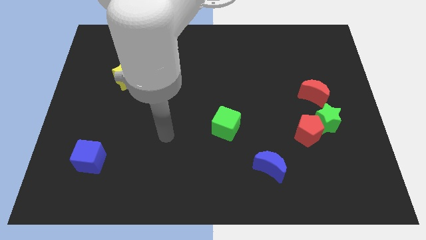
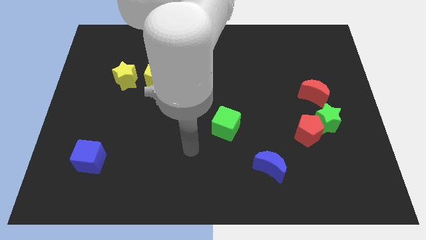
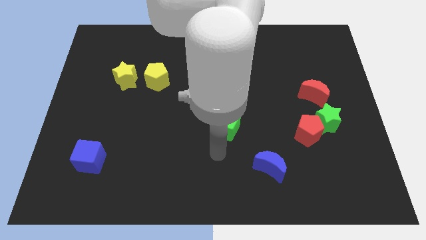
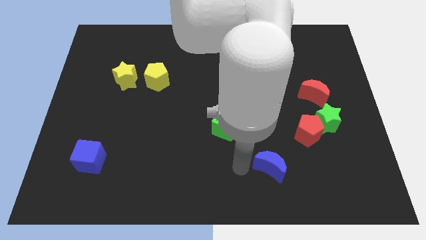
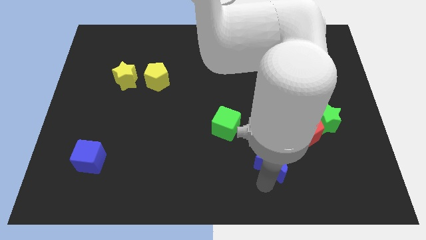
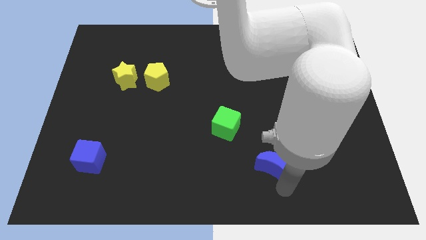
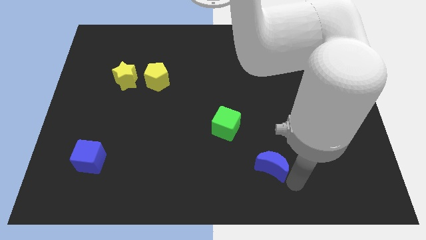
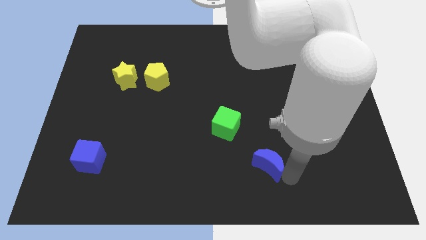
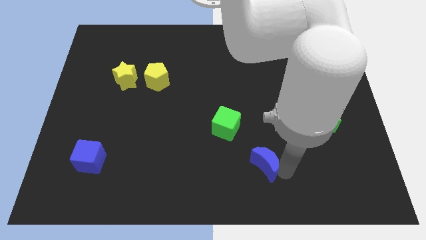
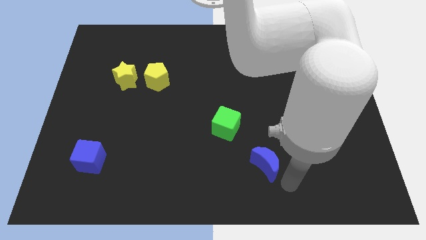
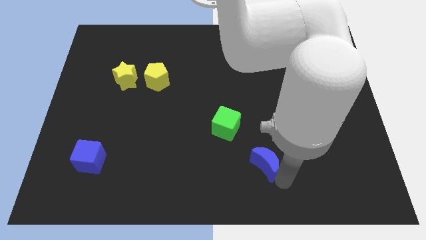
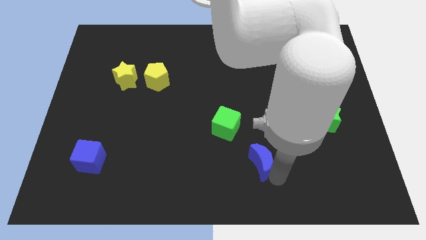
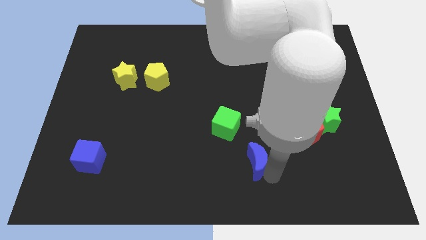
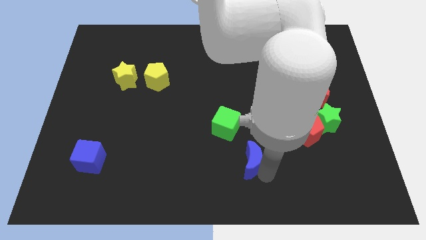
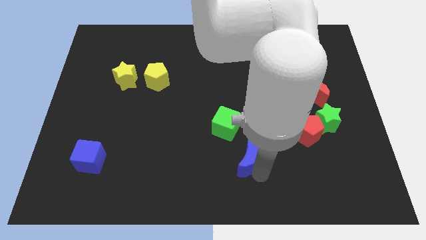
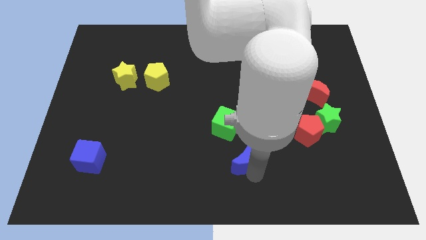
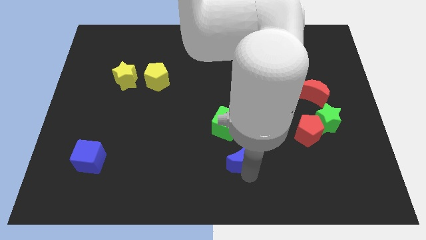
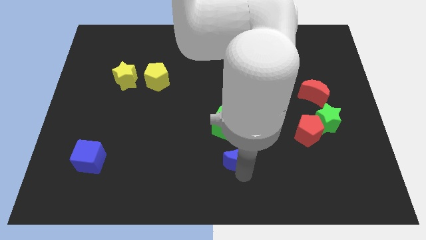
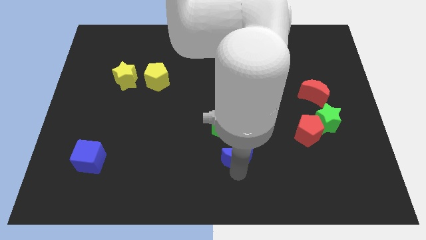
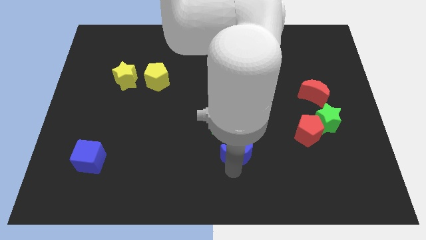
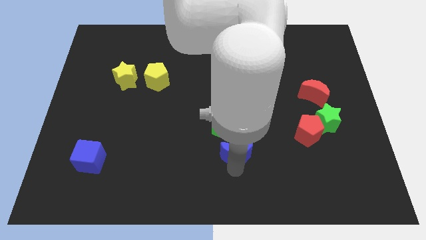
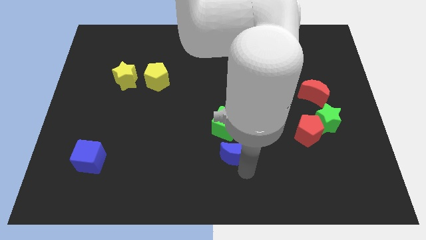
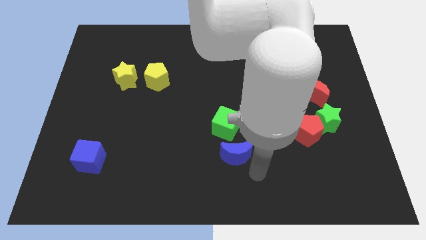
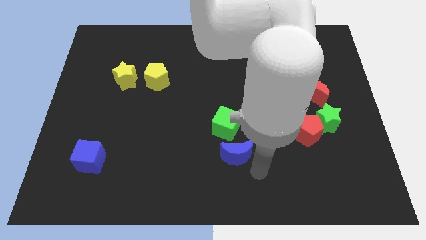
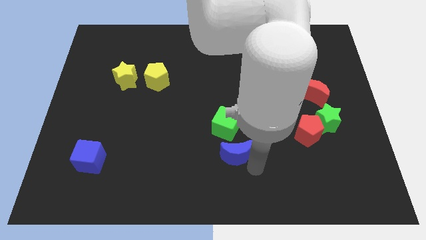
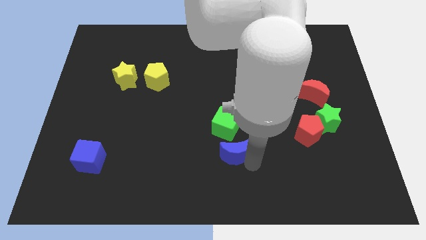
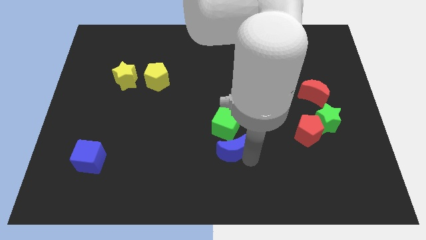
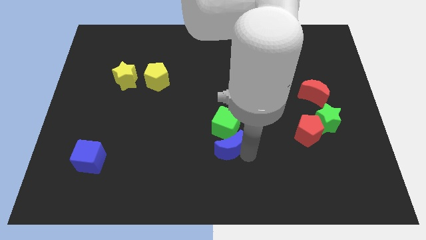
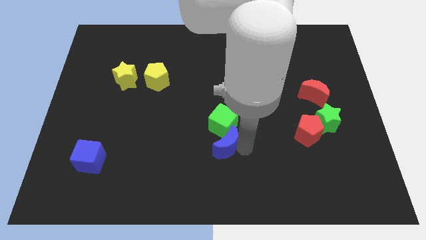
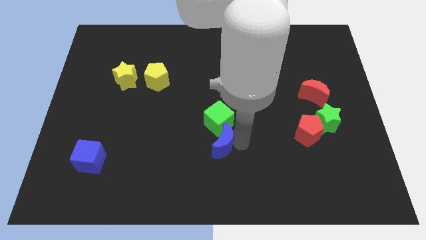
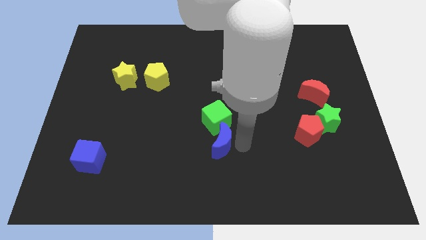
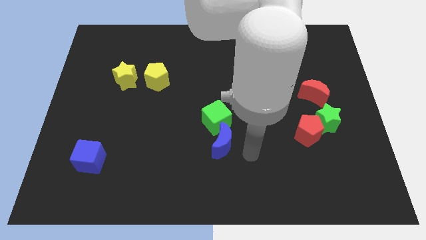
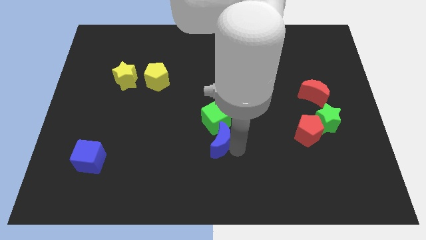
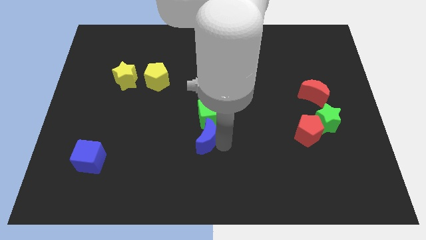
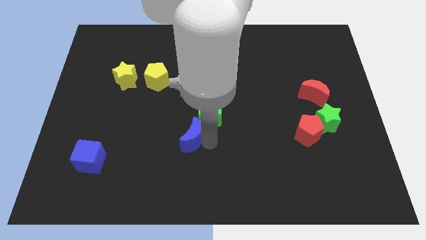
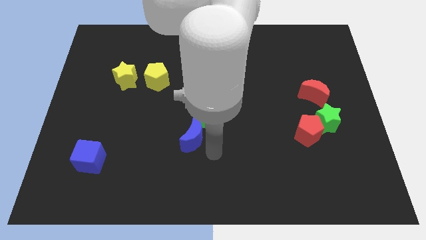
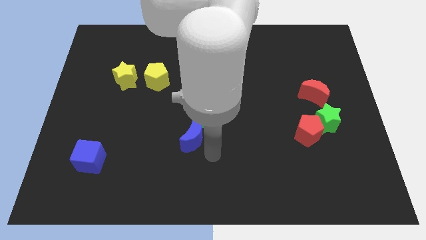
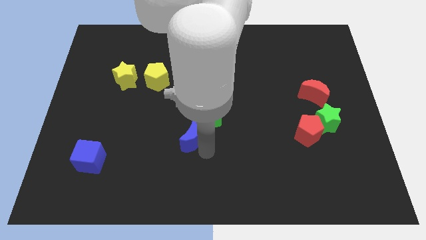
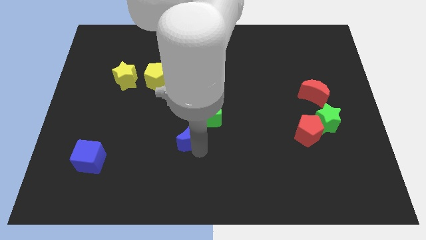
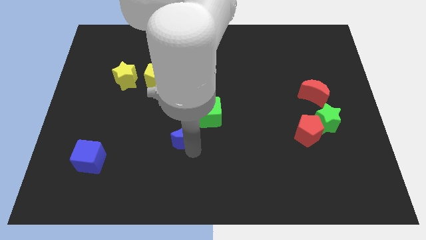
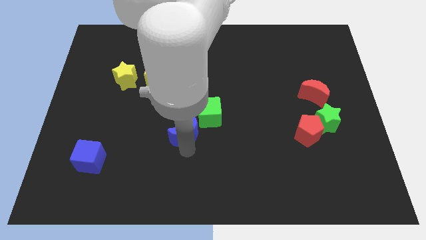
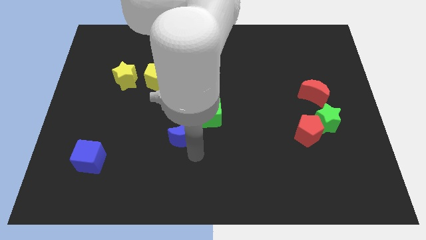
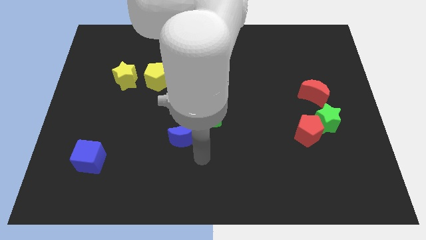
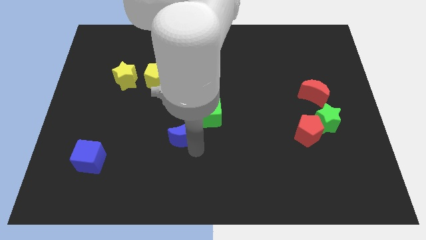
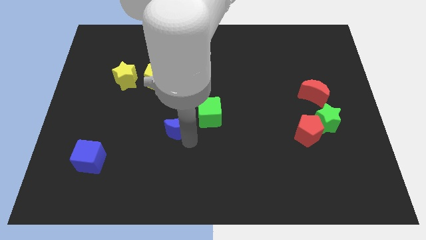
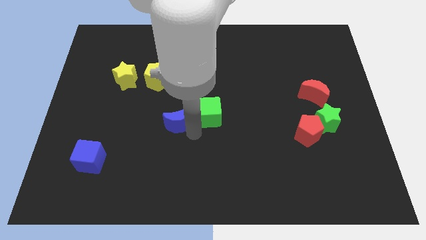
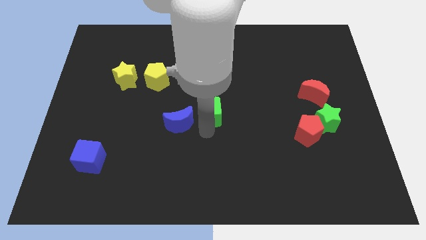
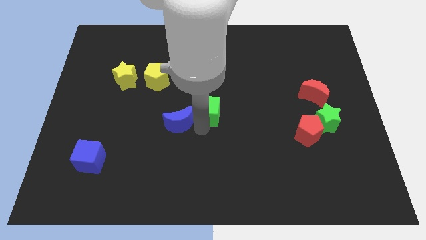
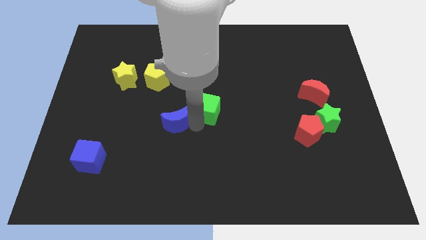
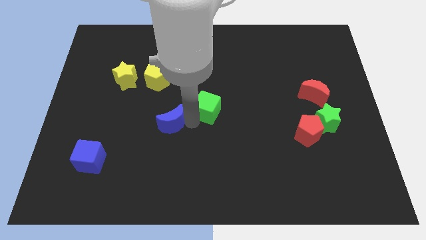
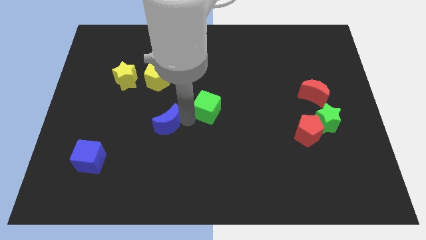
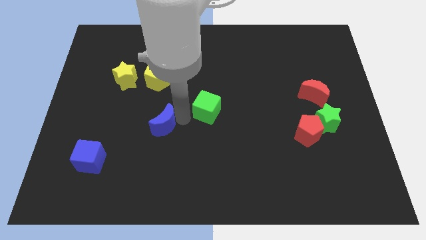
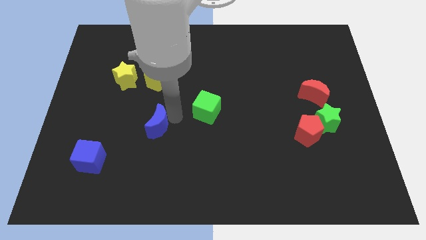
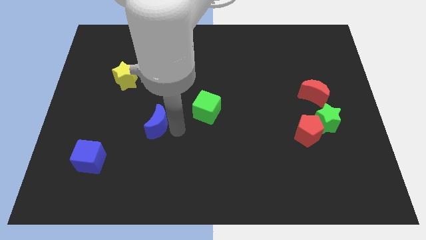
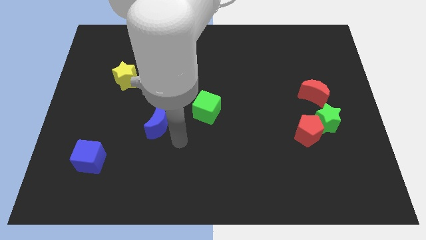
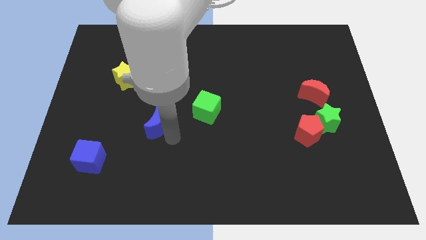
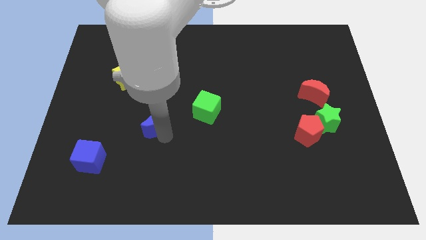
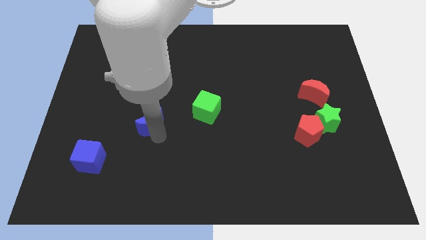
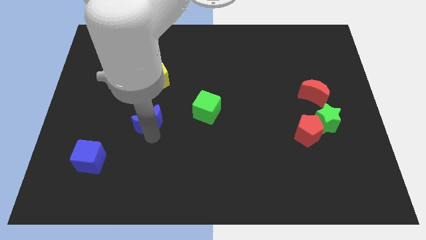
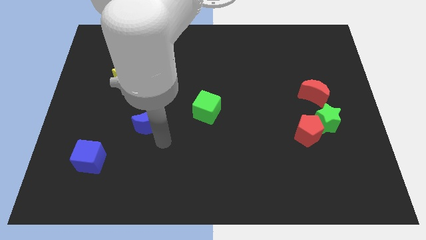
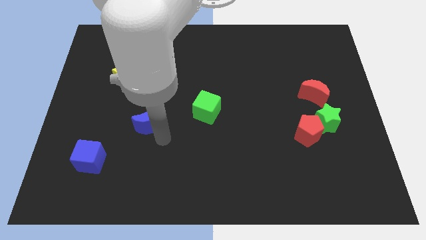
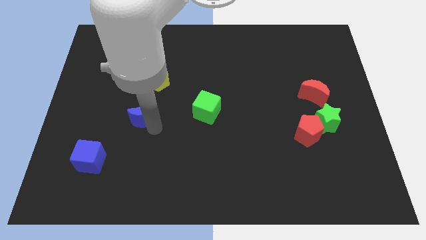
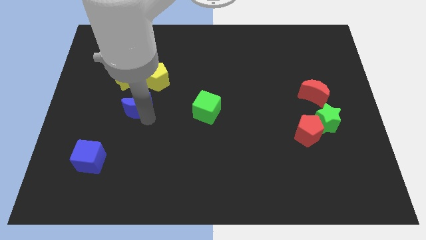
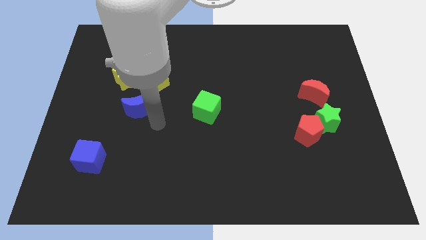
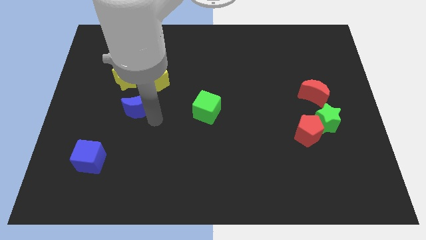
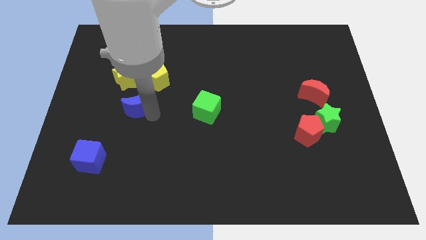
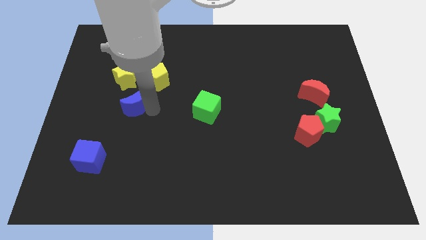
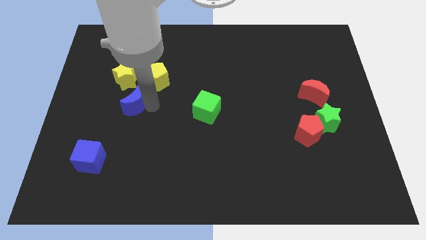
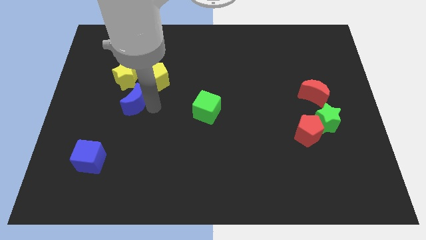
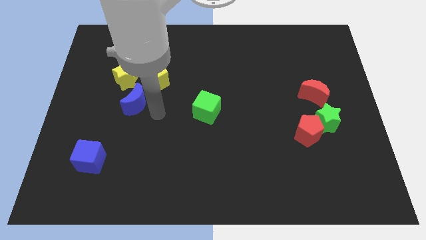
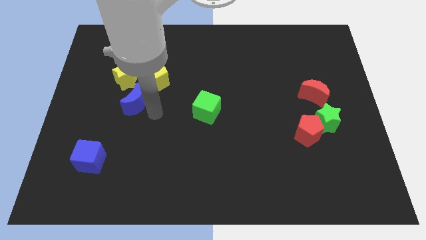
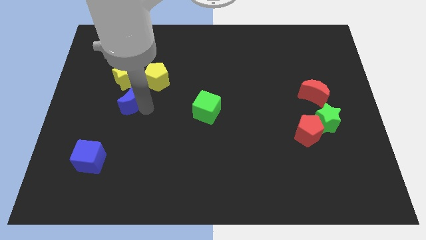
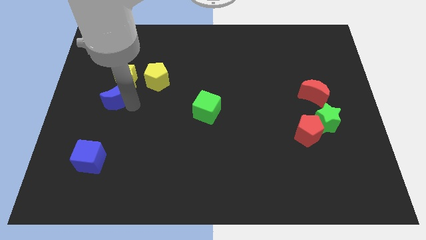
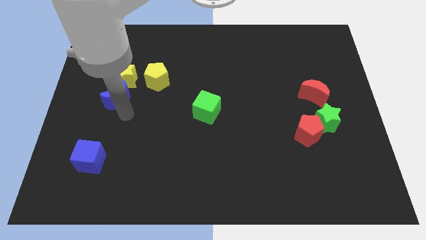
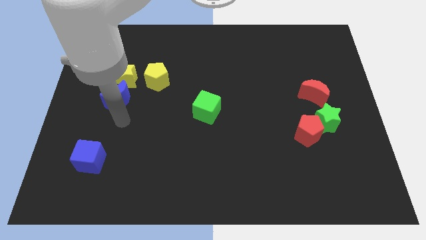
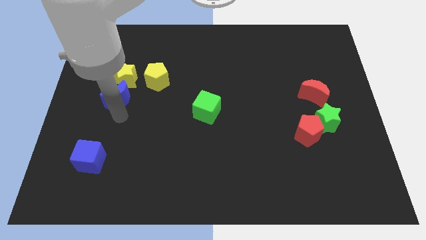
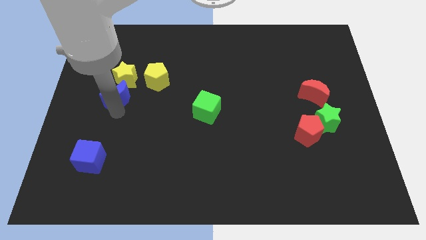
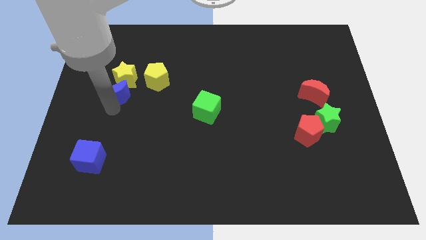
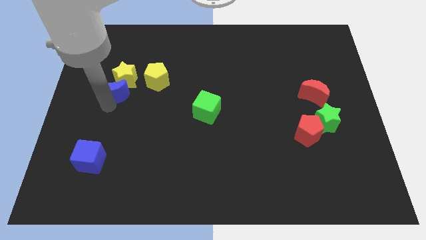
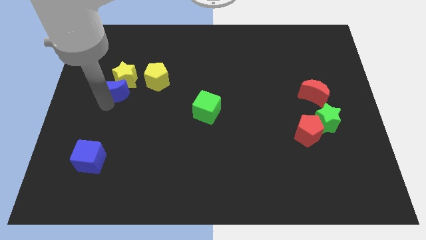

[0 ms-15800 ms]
push the blue moon left of the yellow pentagon
